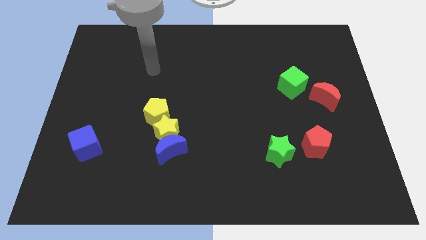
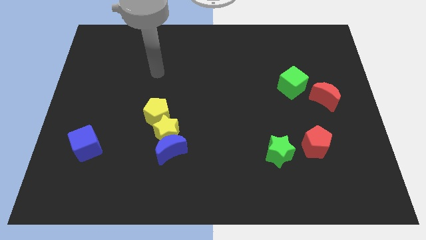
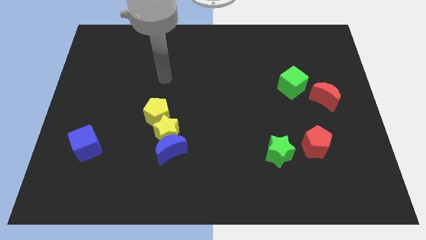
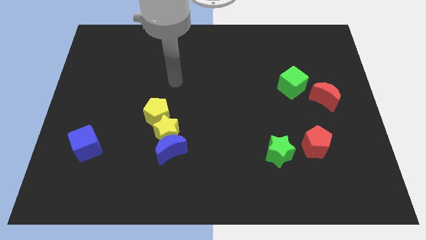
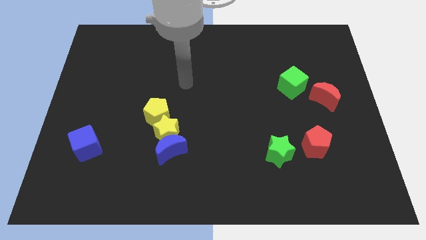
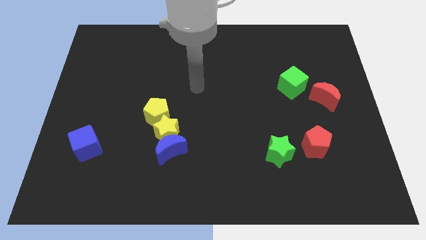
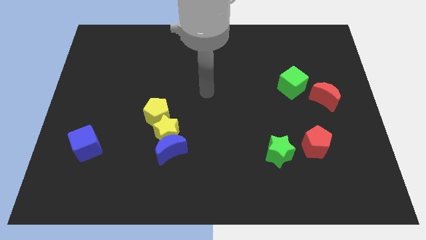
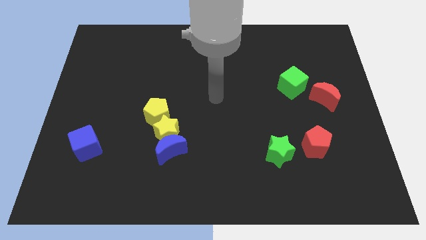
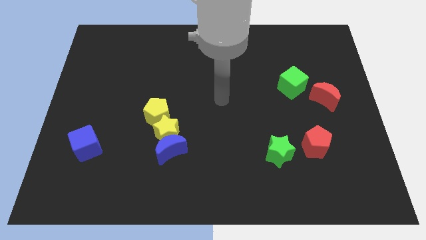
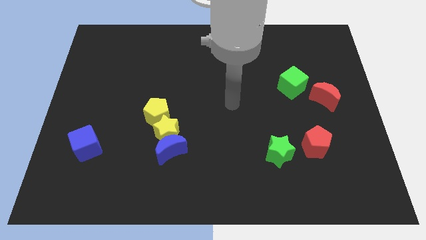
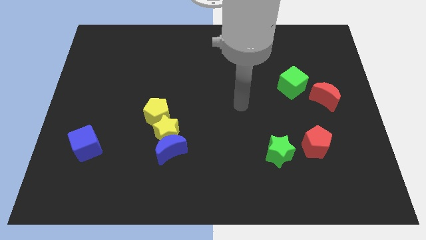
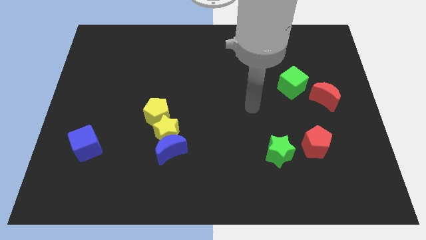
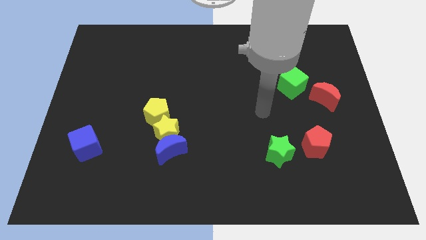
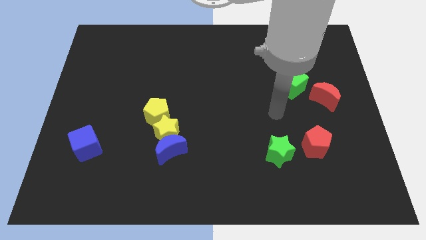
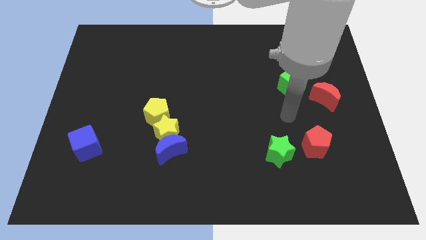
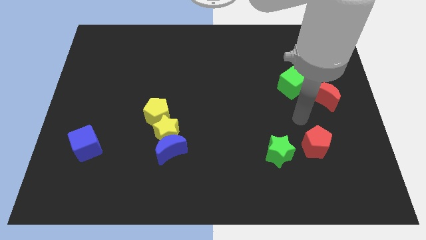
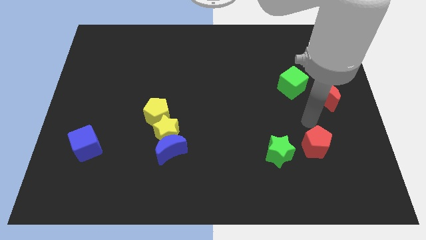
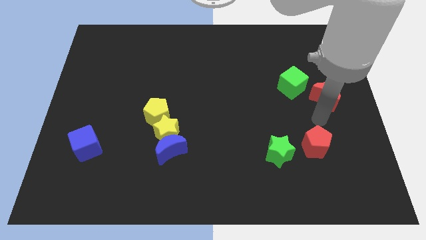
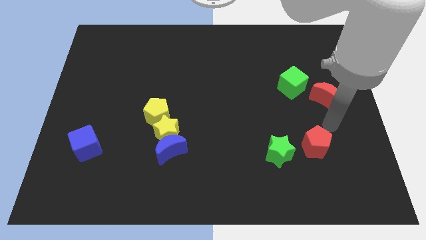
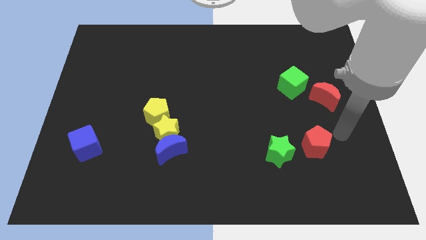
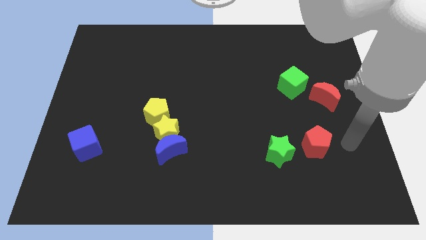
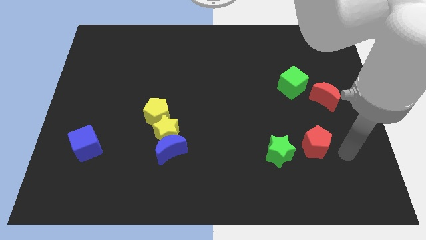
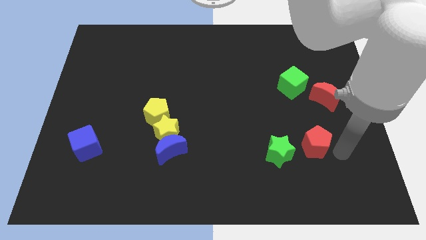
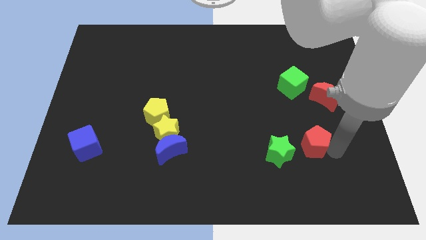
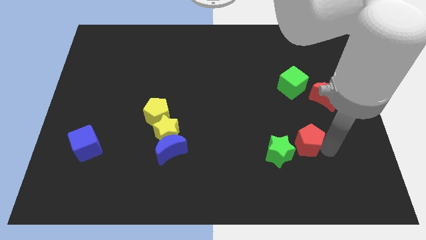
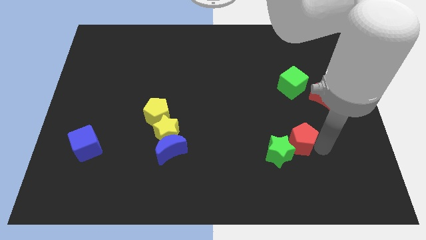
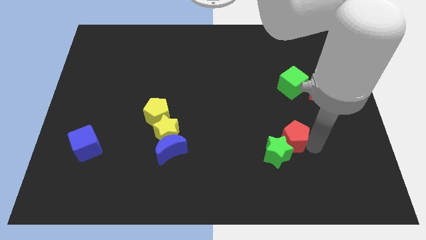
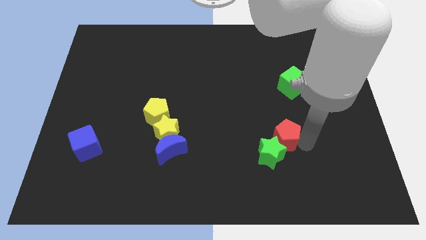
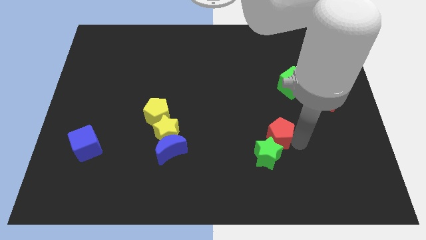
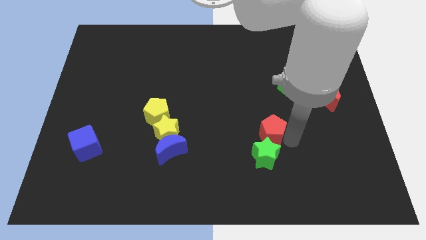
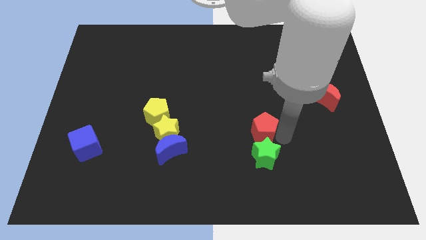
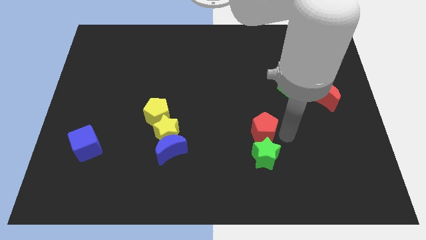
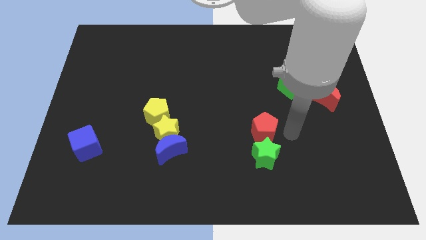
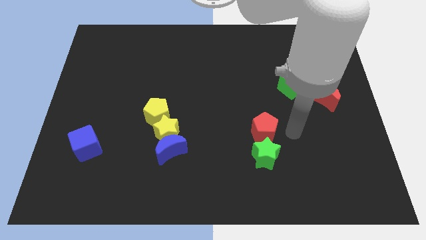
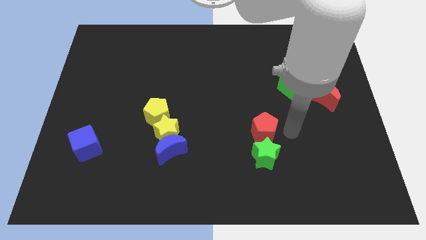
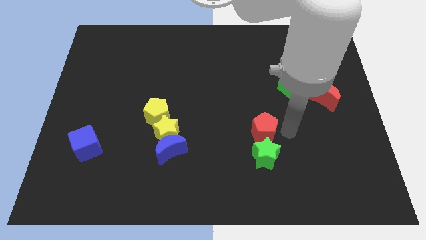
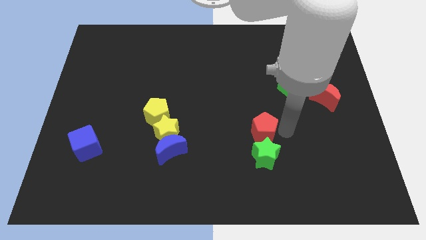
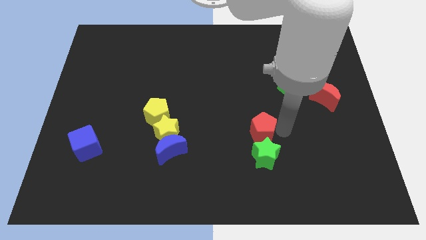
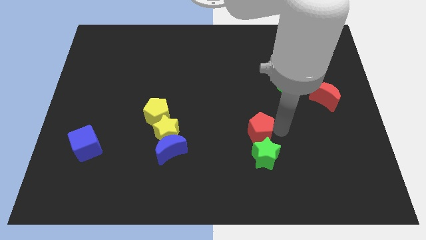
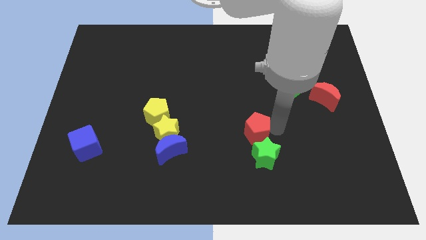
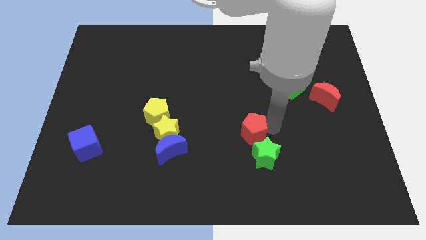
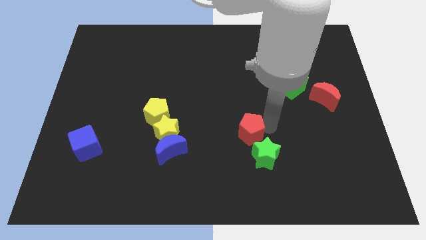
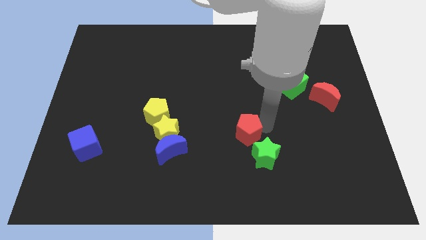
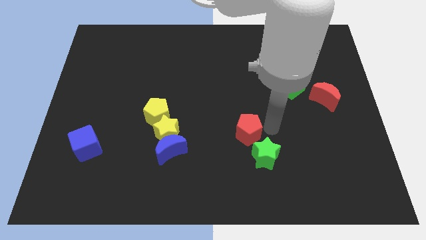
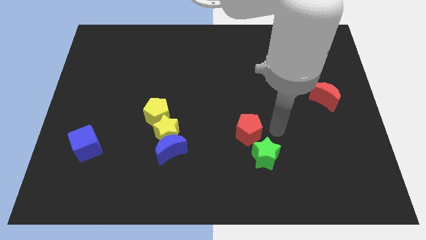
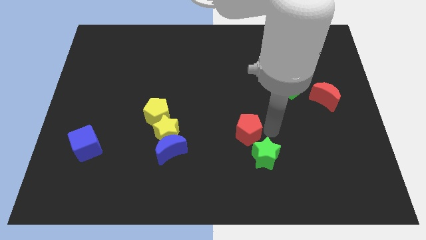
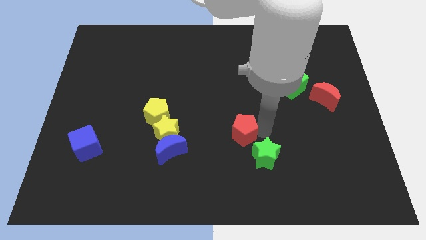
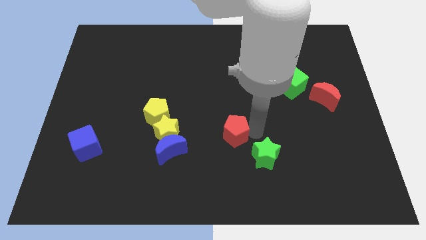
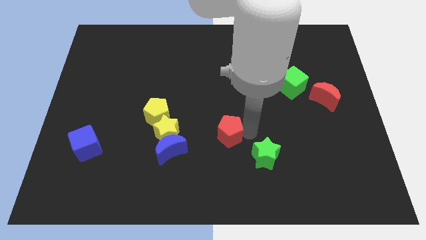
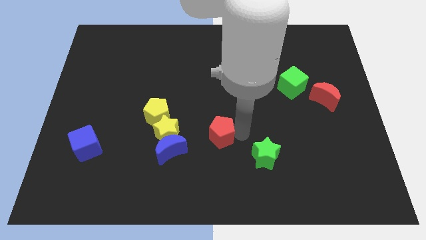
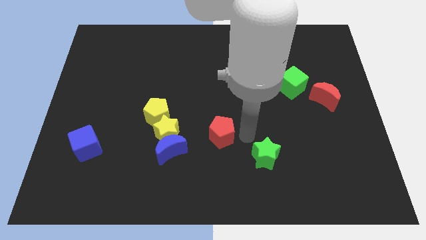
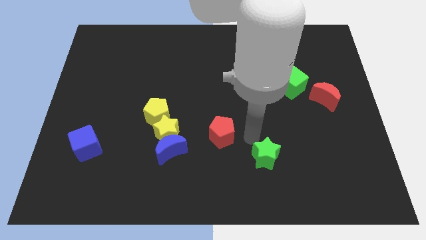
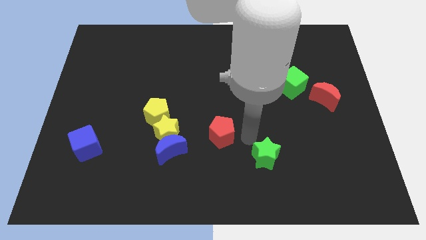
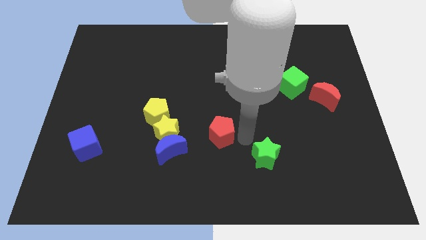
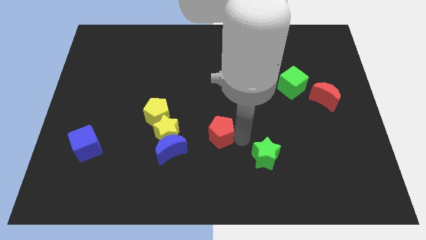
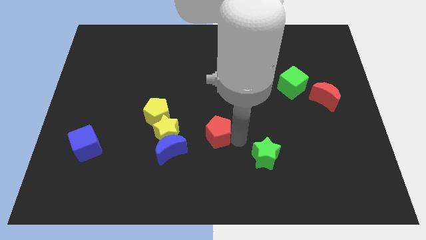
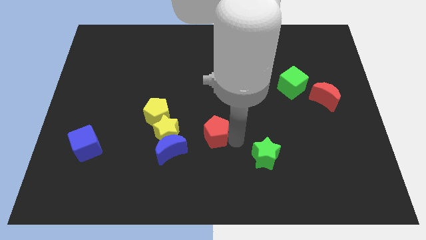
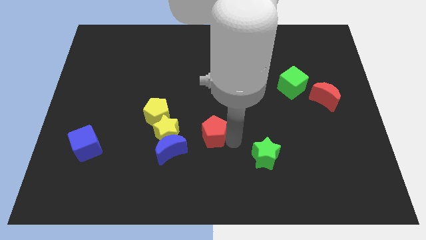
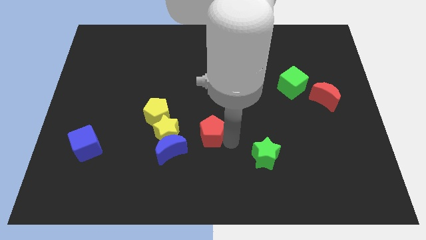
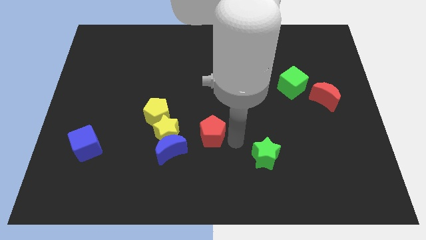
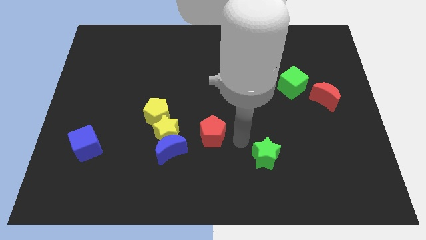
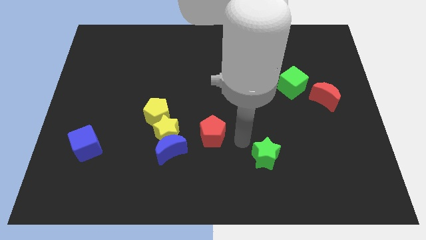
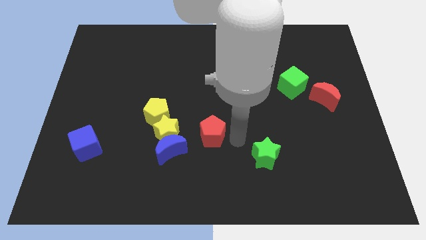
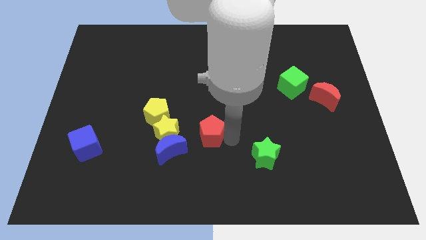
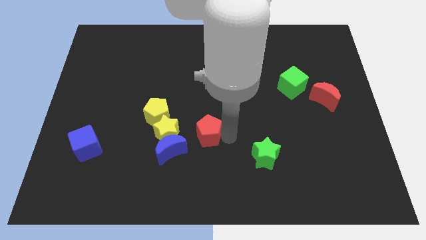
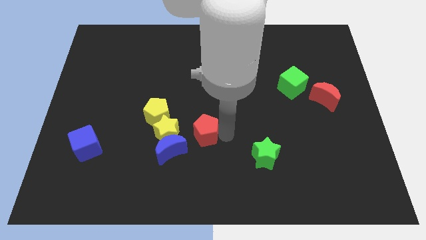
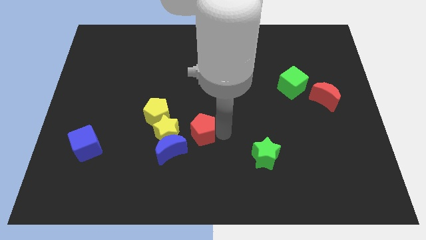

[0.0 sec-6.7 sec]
put the red pentagon to the bottom right of the yellow pentagon

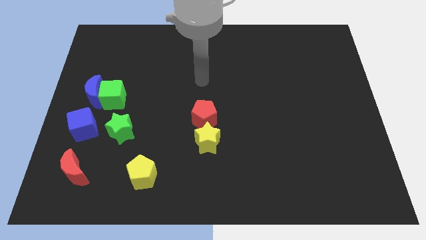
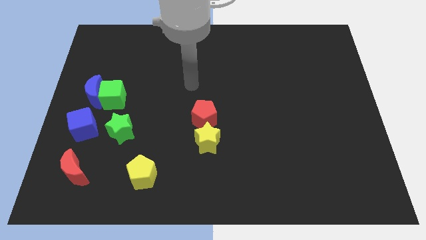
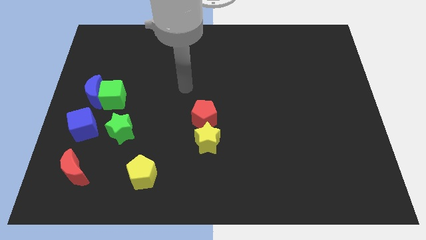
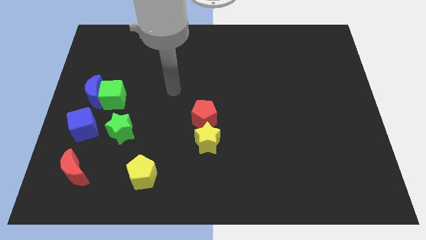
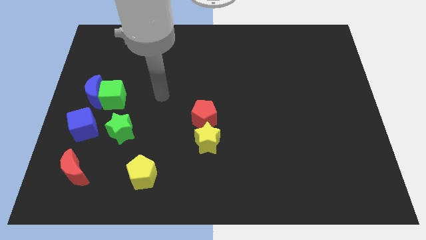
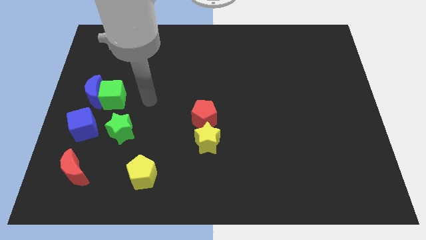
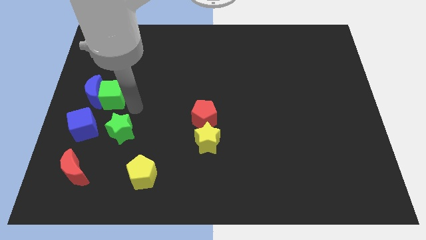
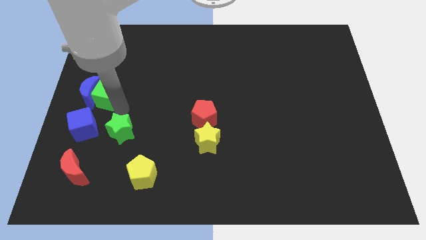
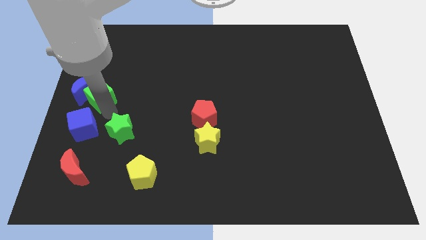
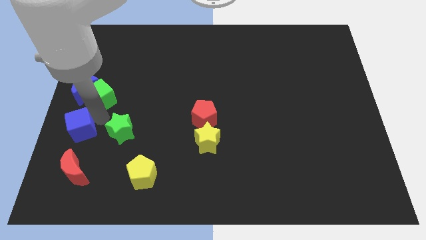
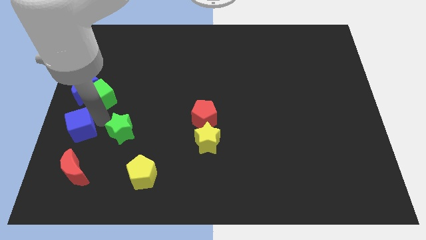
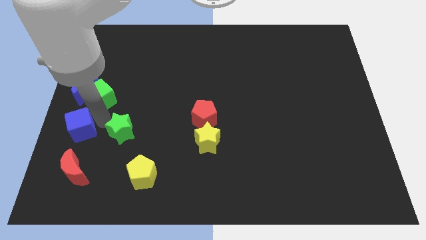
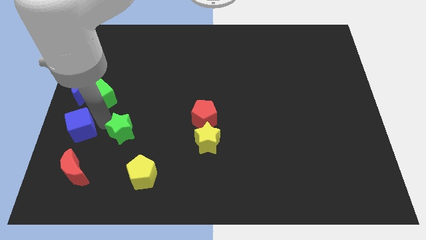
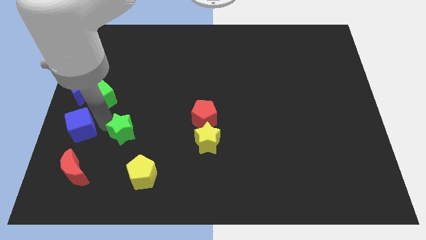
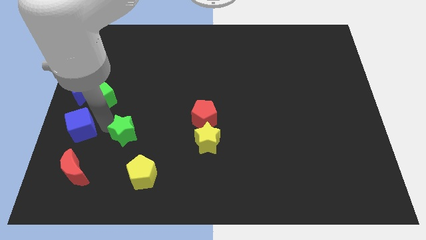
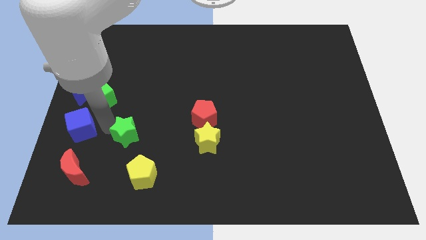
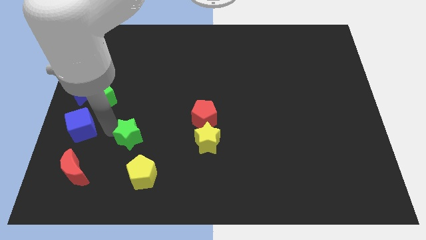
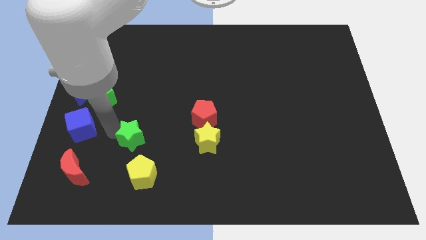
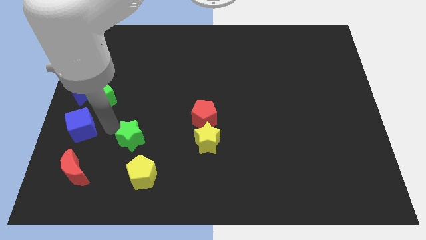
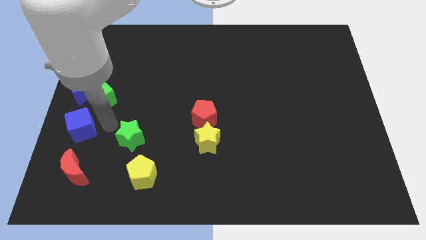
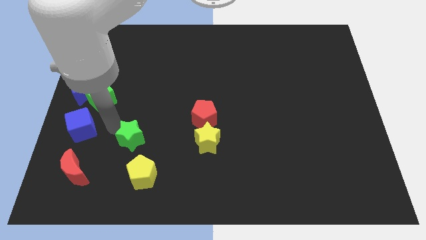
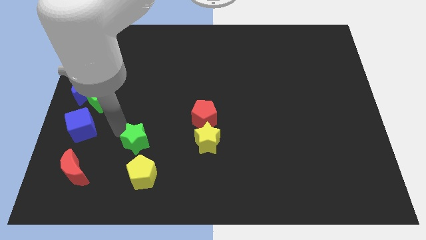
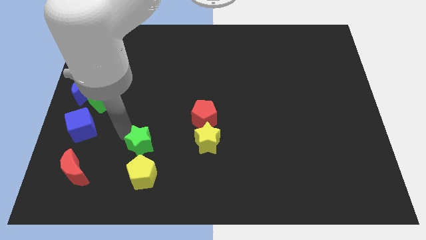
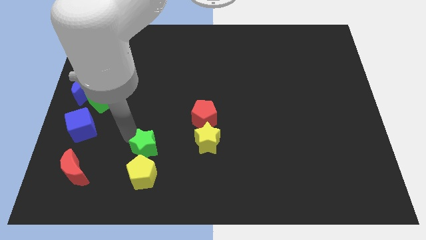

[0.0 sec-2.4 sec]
slide the green star diagonally up and to the right of the yellow pentagon
